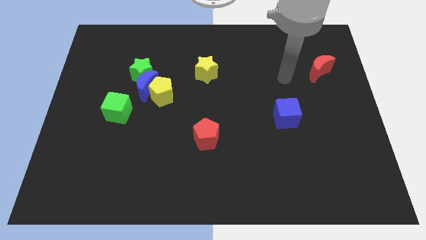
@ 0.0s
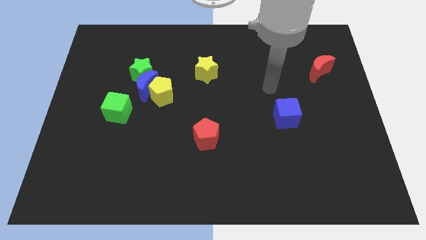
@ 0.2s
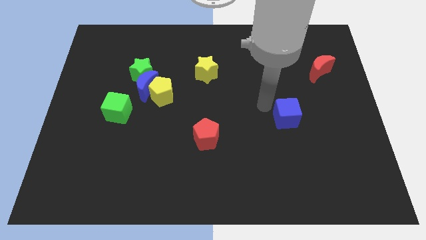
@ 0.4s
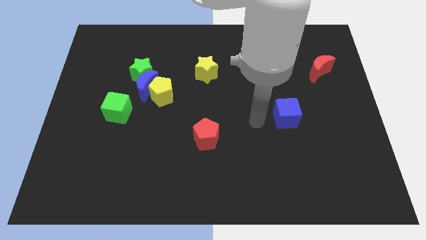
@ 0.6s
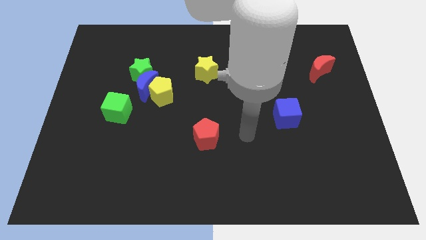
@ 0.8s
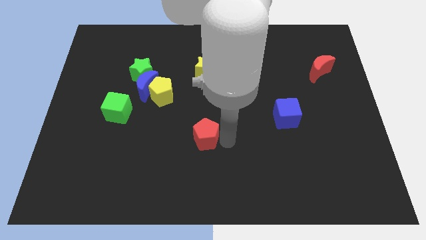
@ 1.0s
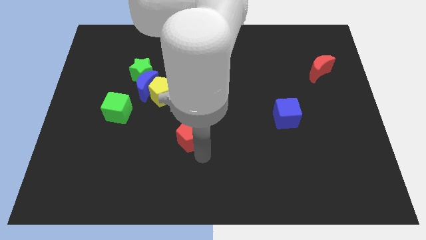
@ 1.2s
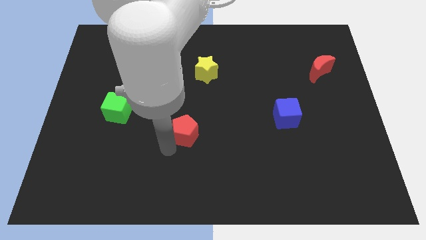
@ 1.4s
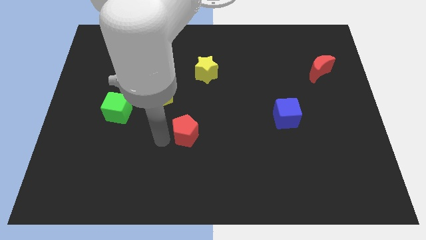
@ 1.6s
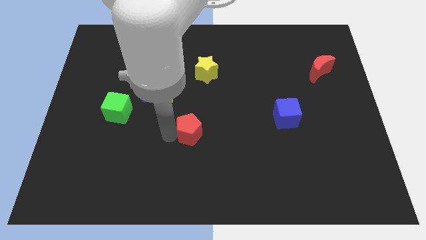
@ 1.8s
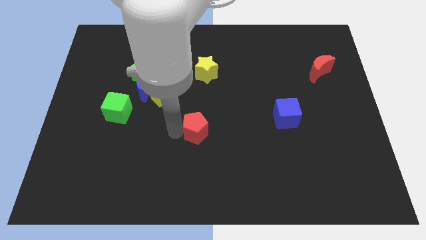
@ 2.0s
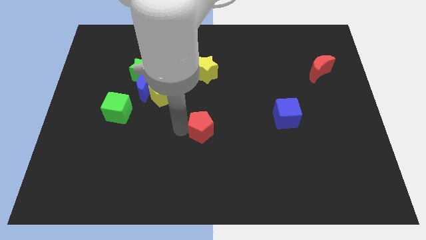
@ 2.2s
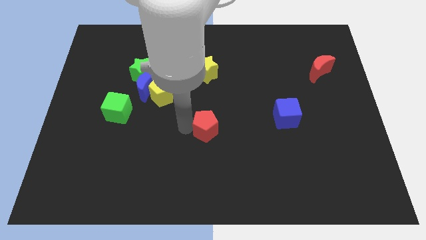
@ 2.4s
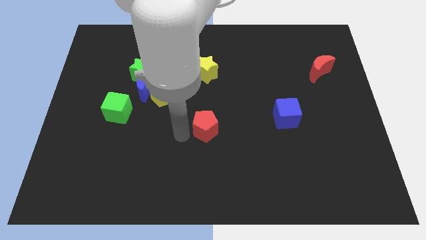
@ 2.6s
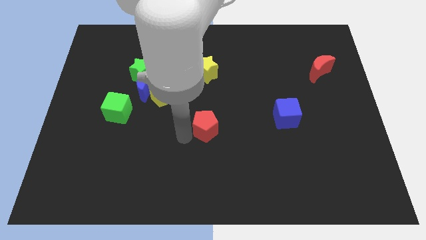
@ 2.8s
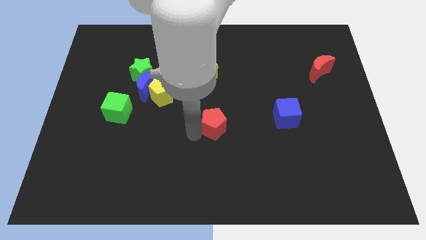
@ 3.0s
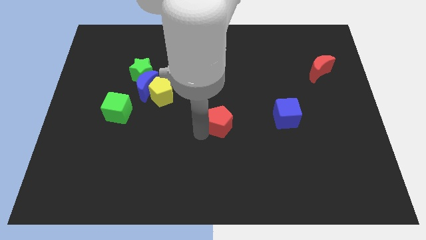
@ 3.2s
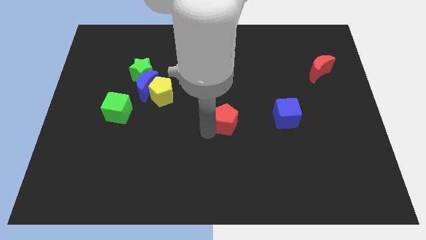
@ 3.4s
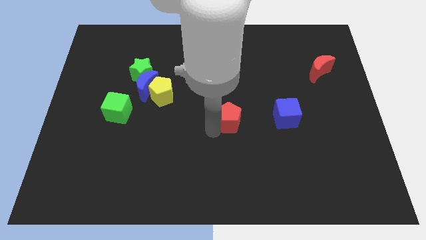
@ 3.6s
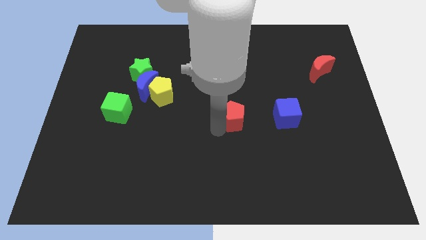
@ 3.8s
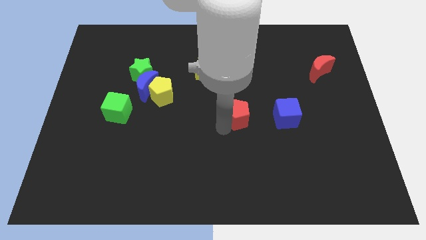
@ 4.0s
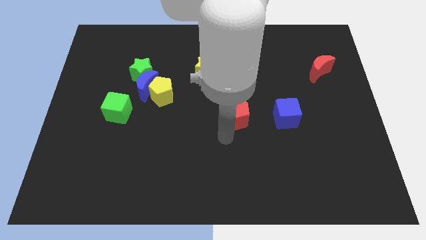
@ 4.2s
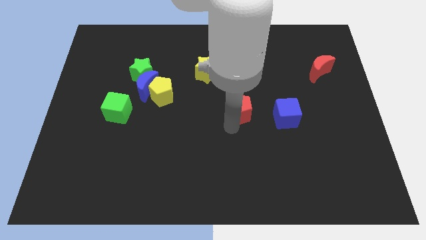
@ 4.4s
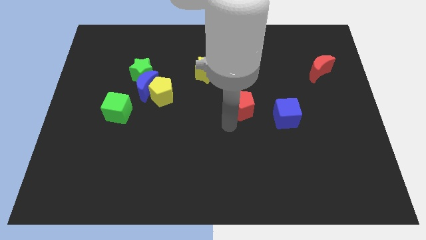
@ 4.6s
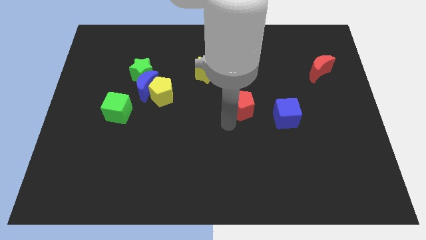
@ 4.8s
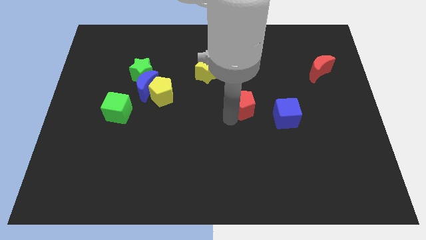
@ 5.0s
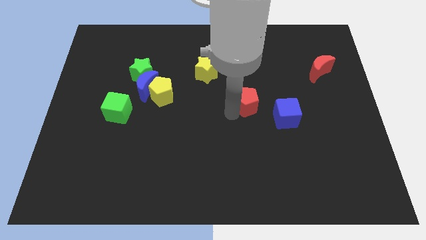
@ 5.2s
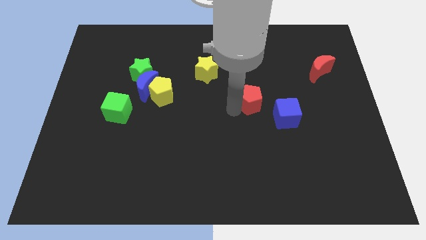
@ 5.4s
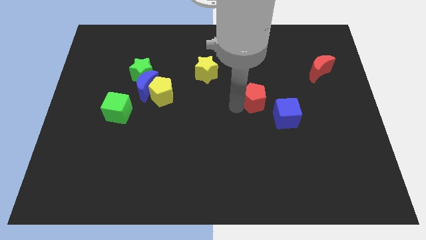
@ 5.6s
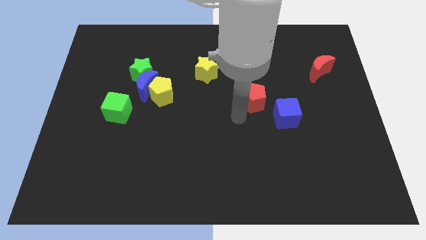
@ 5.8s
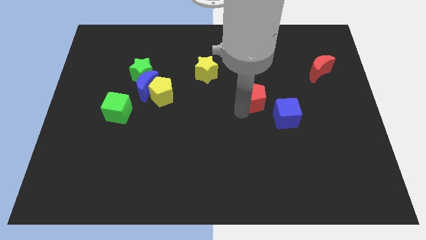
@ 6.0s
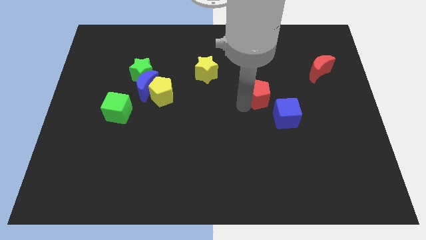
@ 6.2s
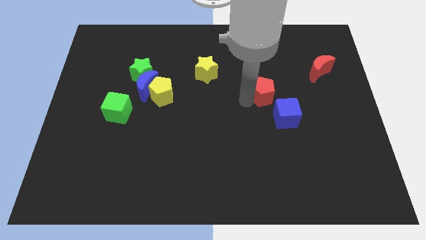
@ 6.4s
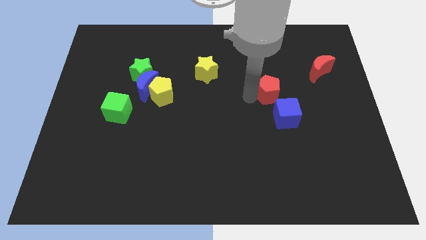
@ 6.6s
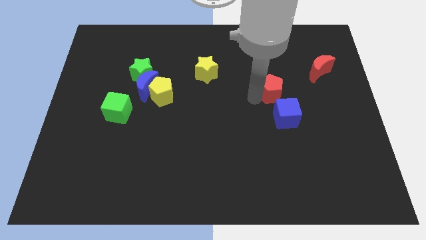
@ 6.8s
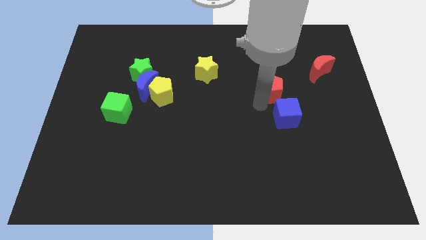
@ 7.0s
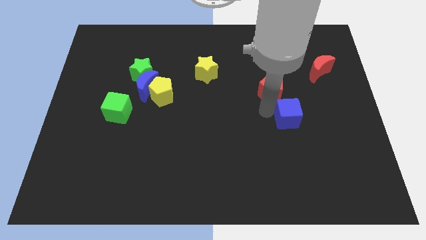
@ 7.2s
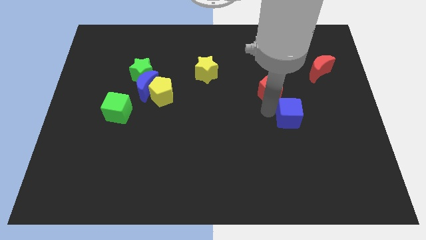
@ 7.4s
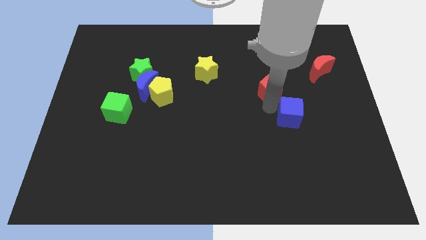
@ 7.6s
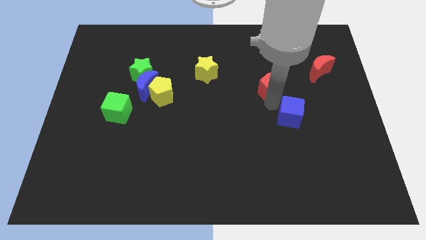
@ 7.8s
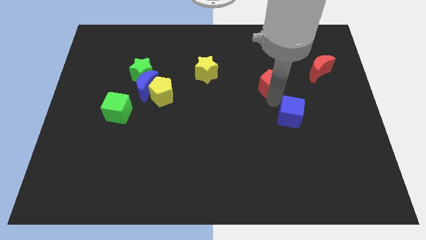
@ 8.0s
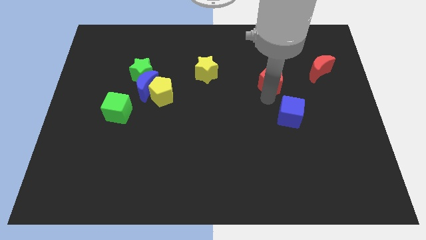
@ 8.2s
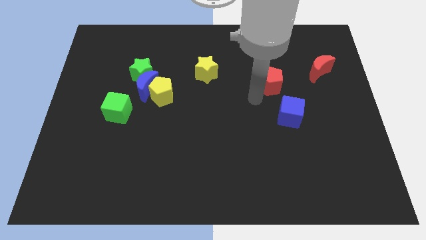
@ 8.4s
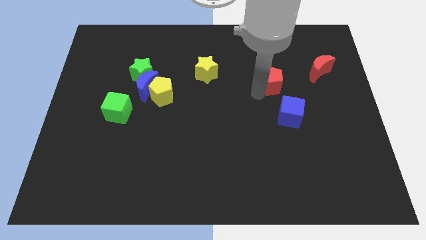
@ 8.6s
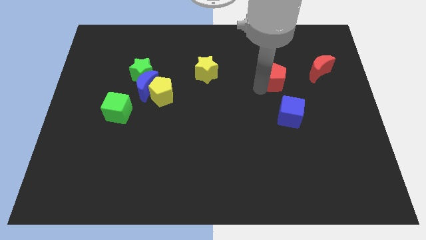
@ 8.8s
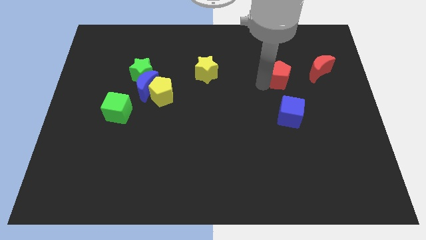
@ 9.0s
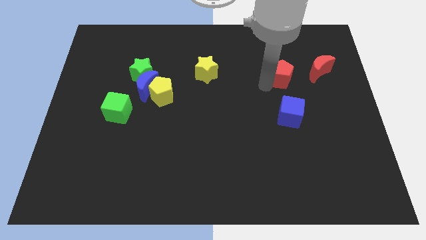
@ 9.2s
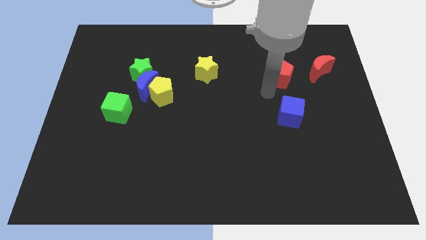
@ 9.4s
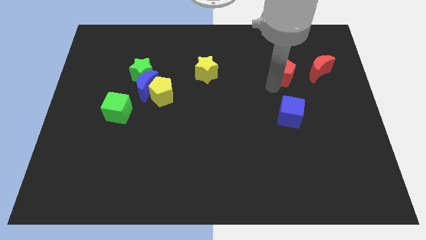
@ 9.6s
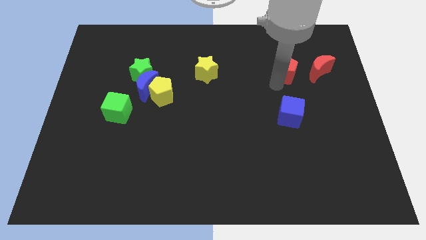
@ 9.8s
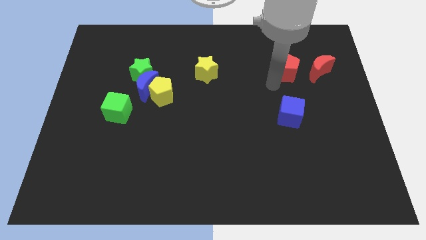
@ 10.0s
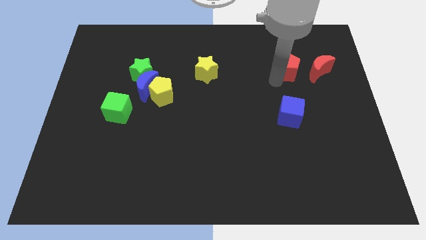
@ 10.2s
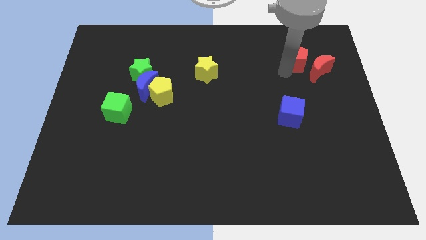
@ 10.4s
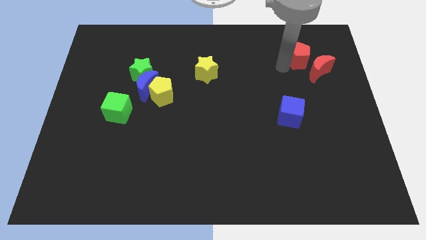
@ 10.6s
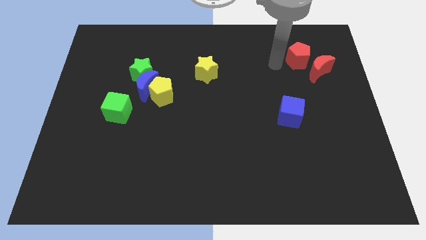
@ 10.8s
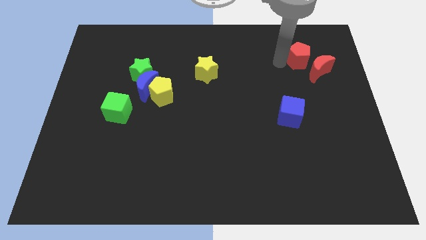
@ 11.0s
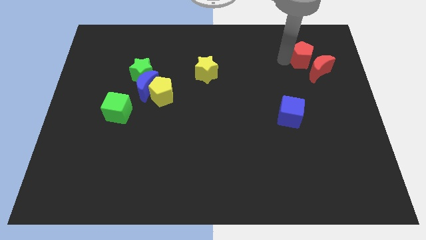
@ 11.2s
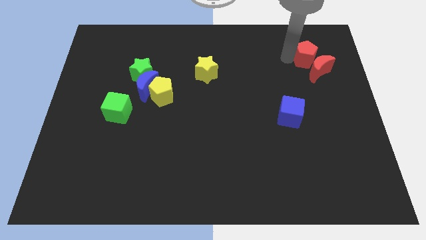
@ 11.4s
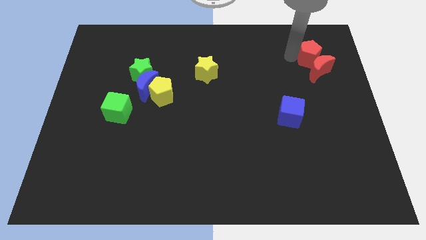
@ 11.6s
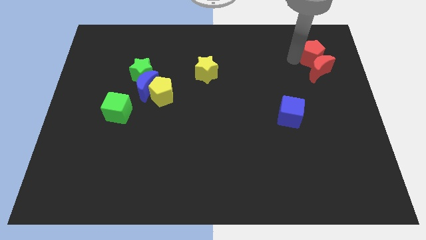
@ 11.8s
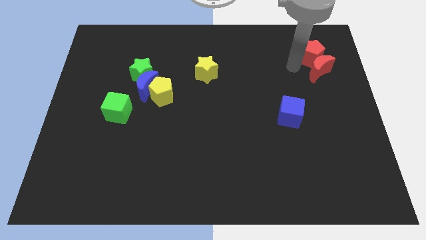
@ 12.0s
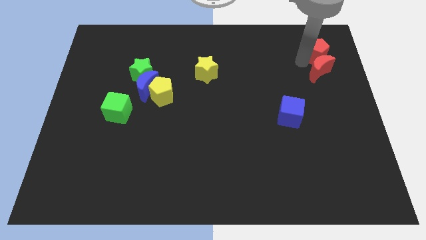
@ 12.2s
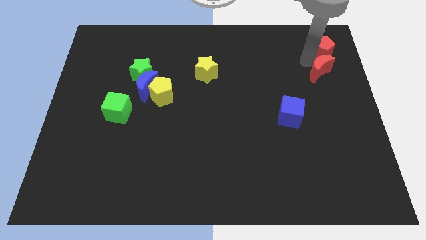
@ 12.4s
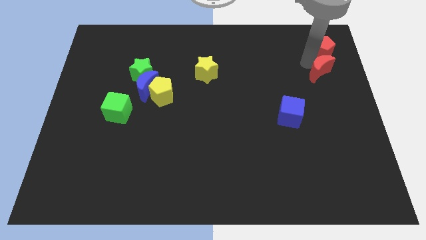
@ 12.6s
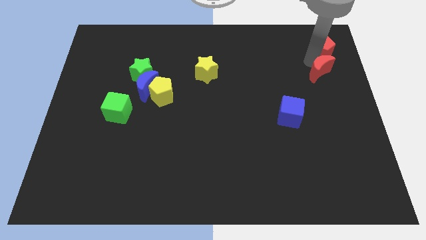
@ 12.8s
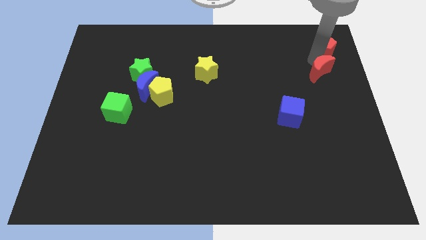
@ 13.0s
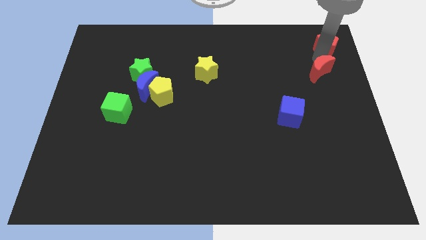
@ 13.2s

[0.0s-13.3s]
slide the red pentagon to the top right
